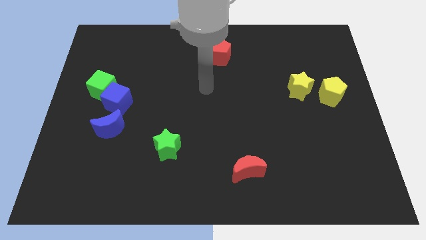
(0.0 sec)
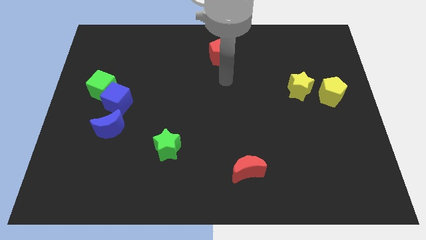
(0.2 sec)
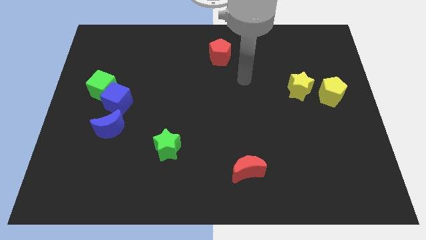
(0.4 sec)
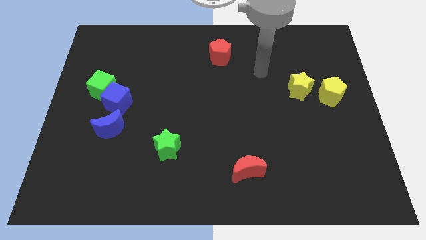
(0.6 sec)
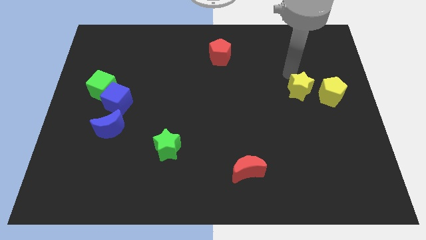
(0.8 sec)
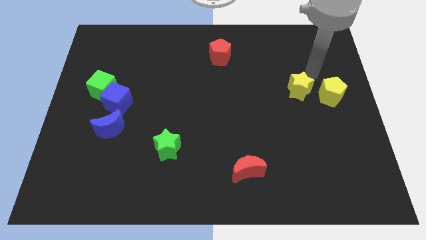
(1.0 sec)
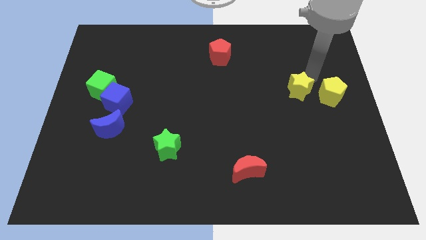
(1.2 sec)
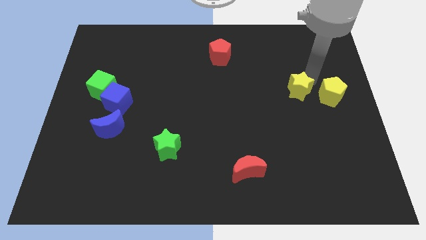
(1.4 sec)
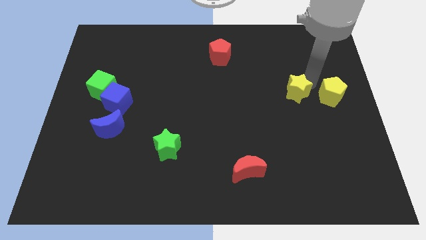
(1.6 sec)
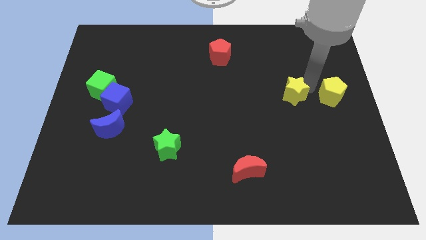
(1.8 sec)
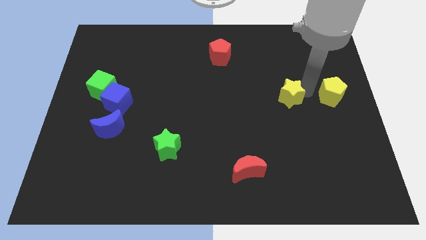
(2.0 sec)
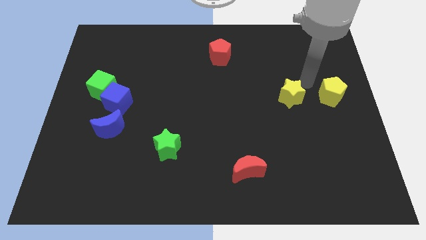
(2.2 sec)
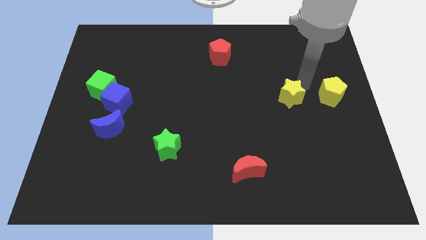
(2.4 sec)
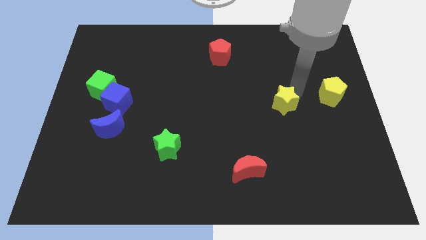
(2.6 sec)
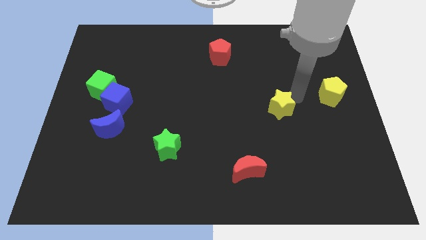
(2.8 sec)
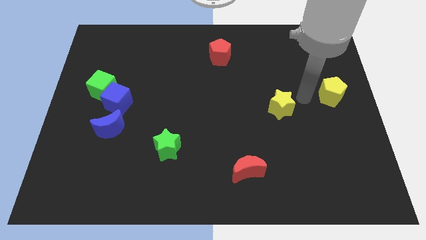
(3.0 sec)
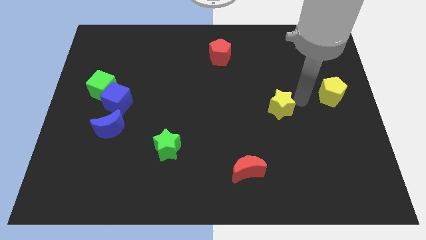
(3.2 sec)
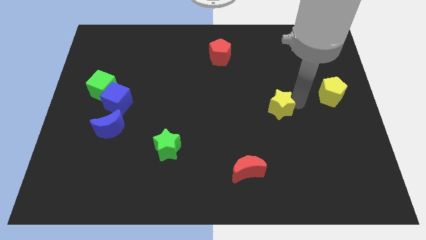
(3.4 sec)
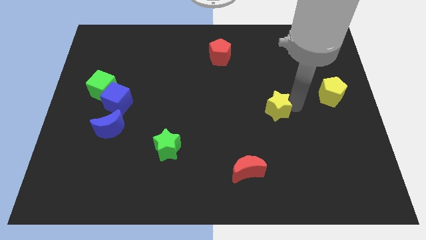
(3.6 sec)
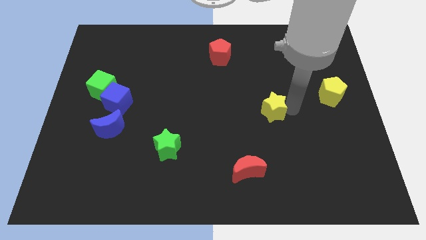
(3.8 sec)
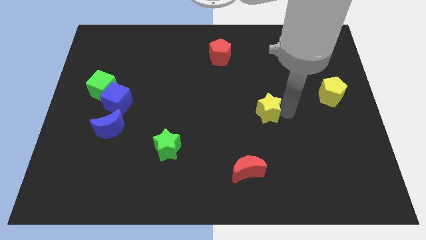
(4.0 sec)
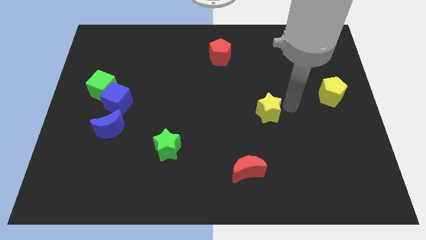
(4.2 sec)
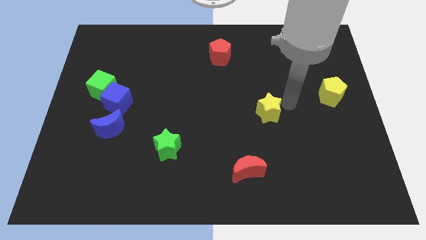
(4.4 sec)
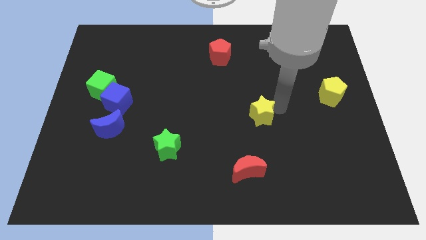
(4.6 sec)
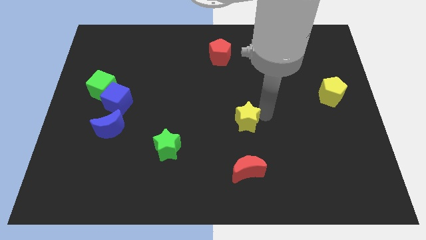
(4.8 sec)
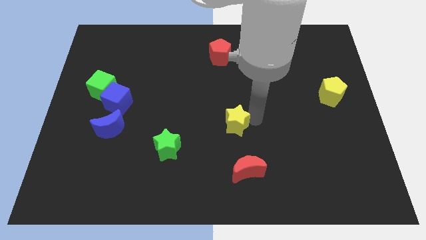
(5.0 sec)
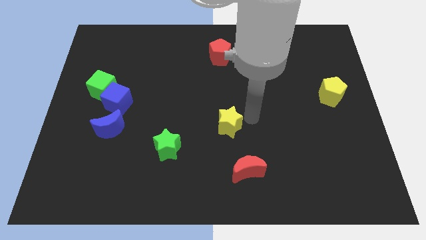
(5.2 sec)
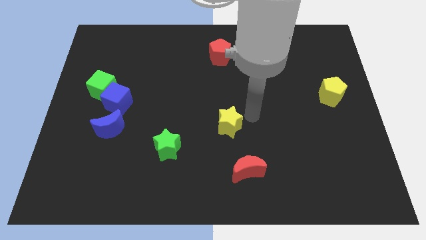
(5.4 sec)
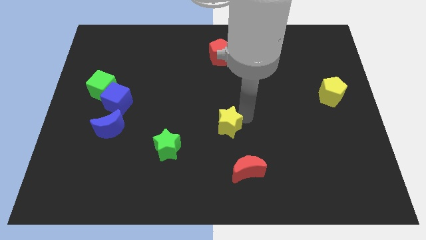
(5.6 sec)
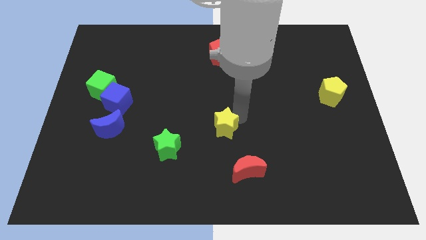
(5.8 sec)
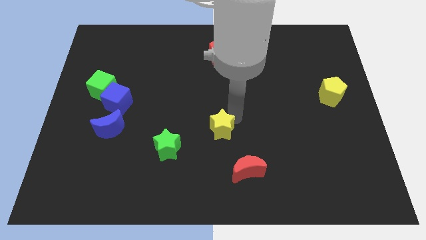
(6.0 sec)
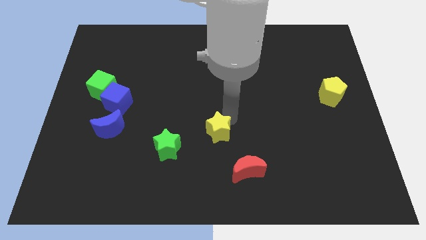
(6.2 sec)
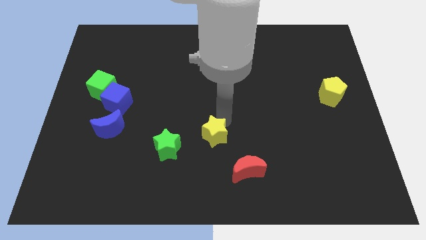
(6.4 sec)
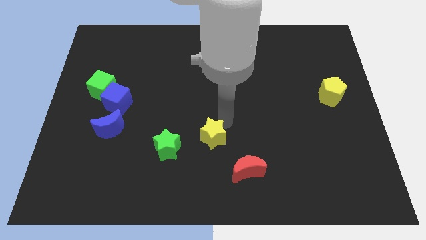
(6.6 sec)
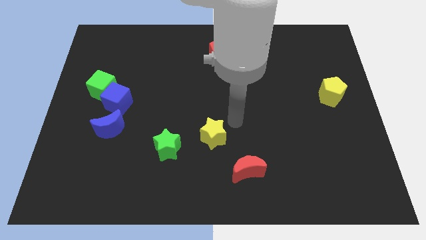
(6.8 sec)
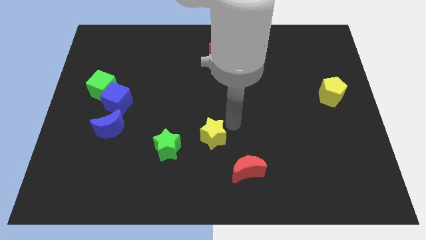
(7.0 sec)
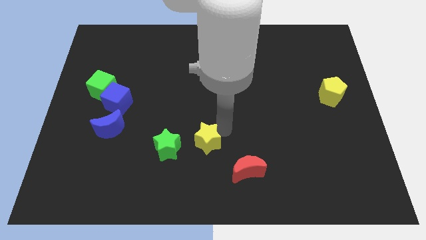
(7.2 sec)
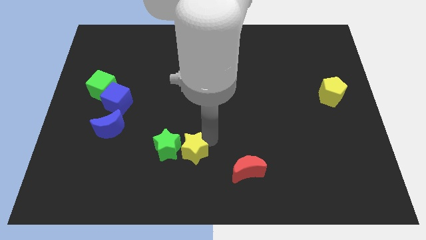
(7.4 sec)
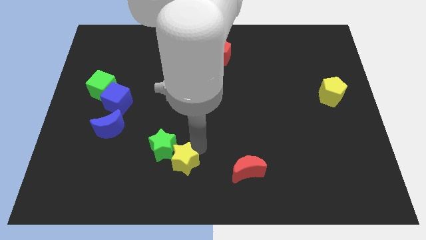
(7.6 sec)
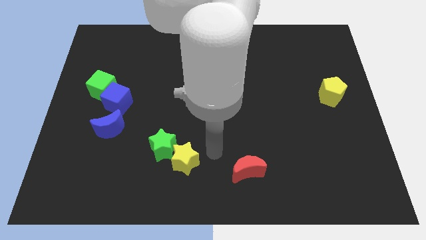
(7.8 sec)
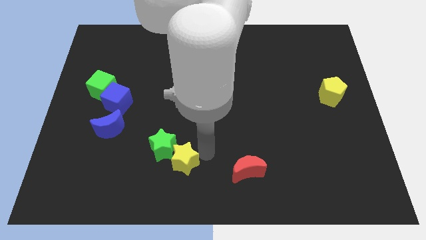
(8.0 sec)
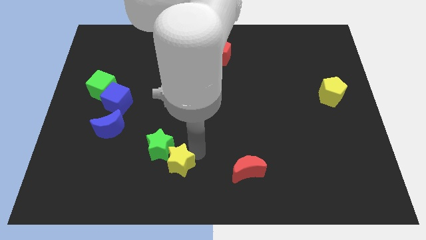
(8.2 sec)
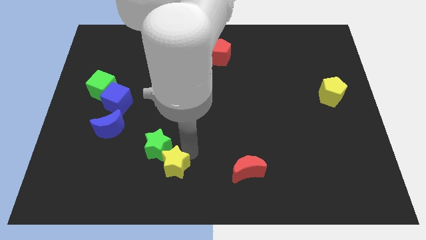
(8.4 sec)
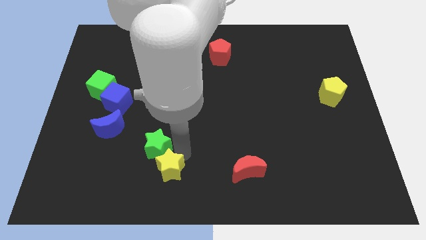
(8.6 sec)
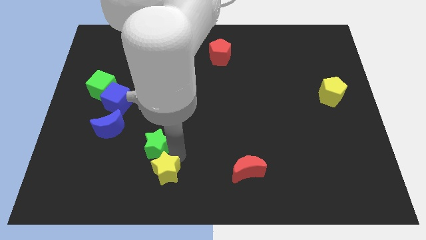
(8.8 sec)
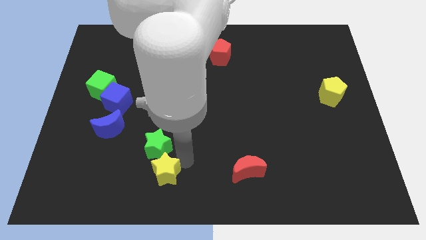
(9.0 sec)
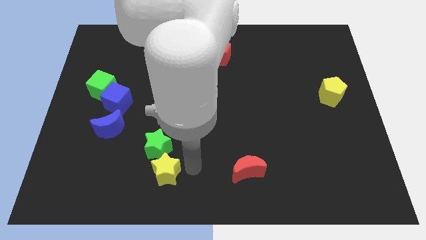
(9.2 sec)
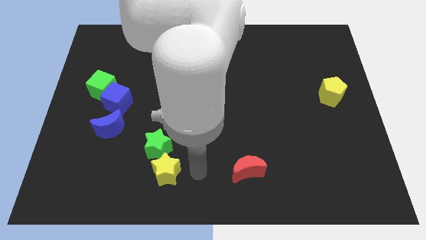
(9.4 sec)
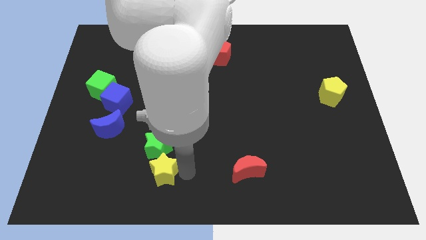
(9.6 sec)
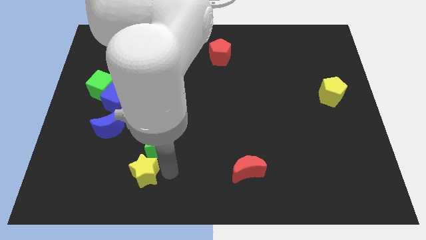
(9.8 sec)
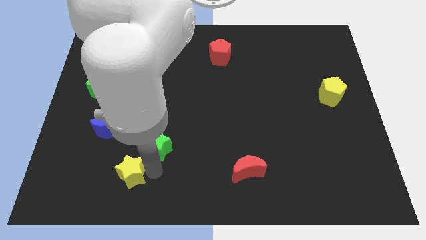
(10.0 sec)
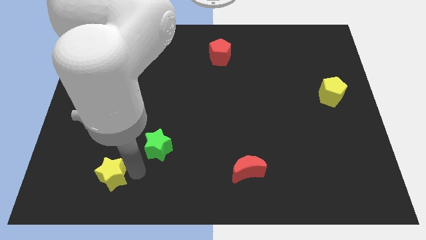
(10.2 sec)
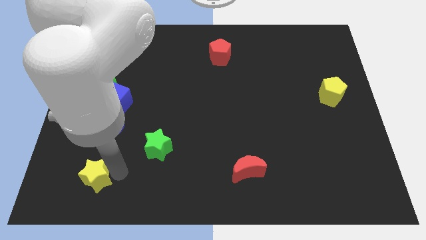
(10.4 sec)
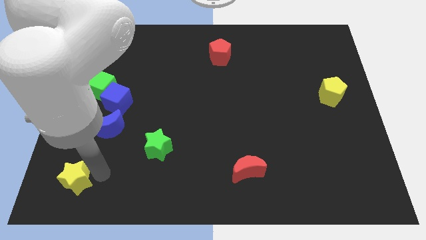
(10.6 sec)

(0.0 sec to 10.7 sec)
slide the yellow star to the lower left corner

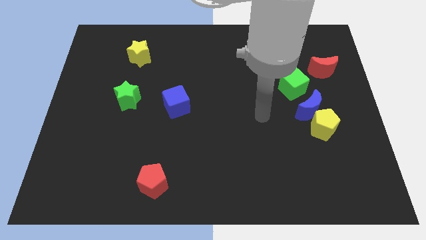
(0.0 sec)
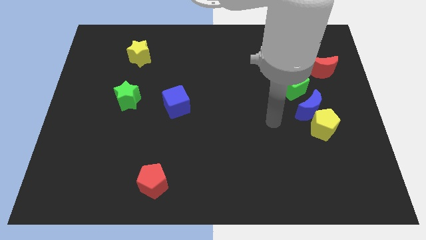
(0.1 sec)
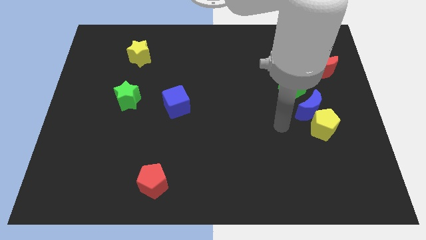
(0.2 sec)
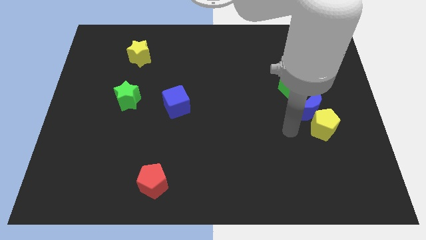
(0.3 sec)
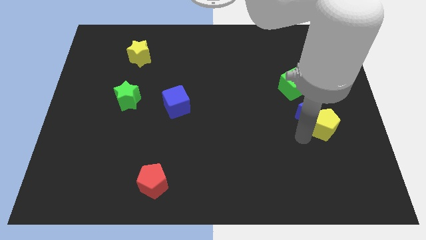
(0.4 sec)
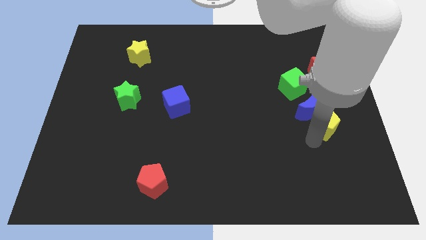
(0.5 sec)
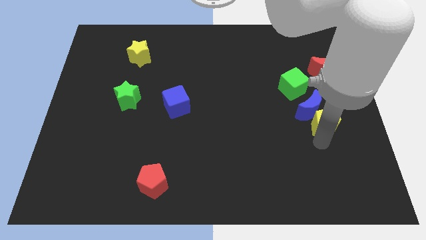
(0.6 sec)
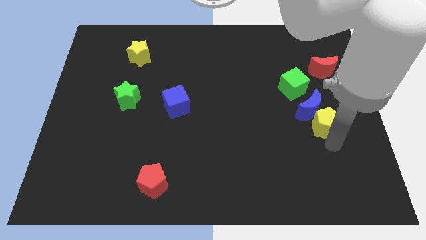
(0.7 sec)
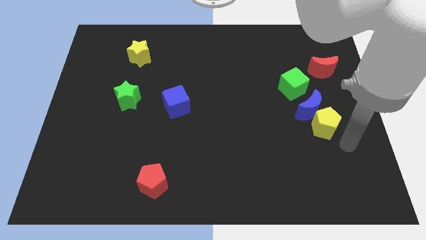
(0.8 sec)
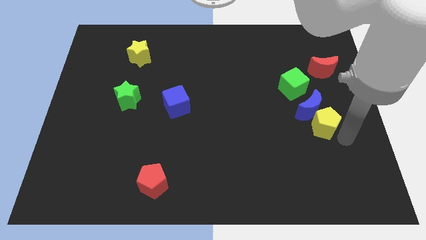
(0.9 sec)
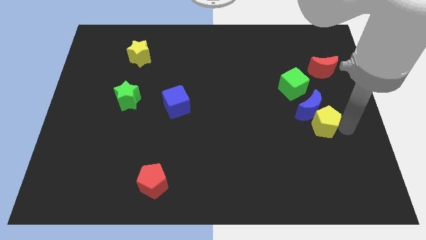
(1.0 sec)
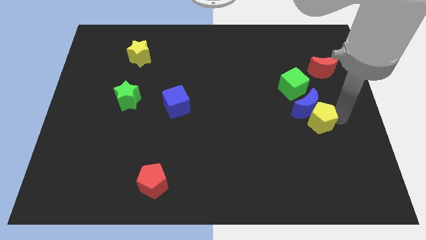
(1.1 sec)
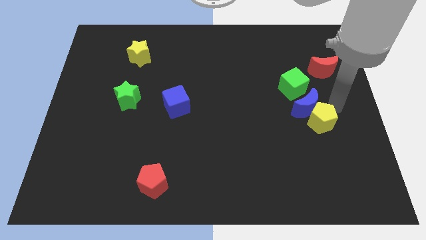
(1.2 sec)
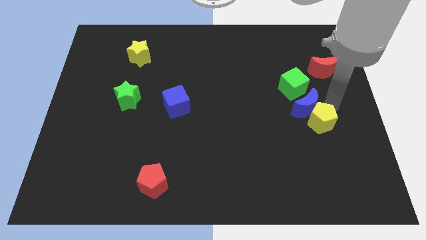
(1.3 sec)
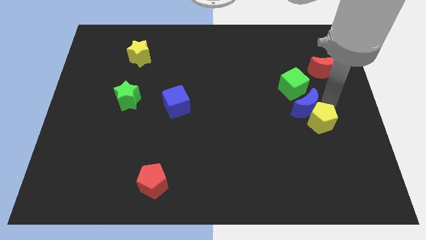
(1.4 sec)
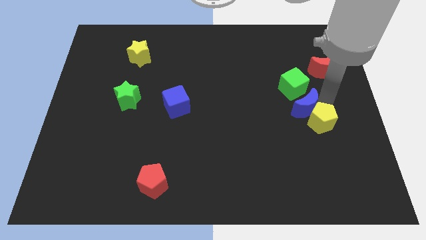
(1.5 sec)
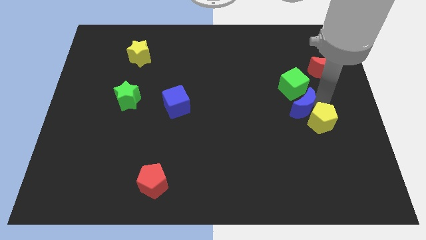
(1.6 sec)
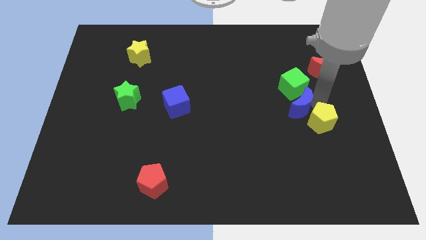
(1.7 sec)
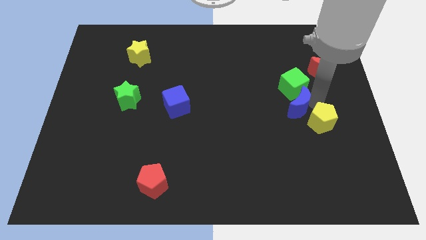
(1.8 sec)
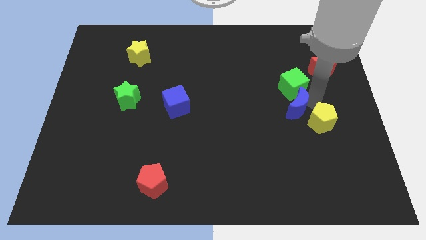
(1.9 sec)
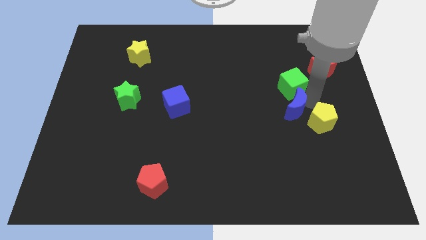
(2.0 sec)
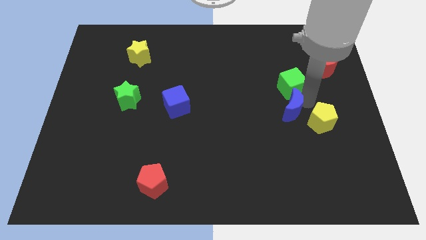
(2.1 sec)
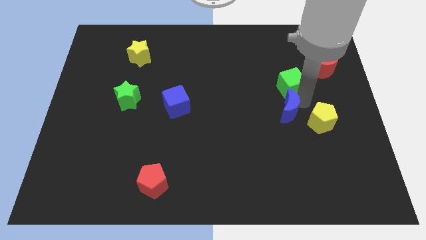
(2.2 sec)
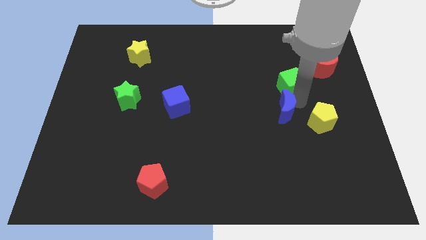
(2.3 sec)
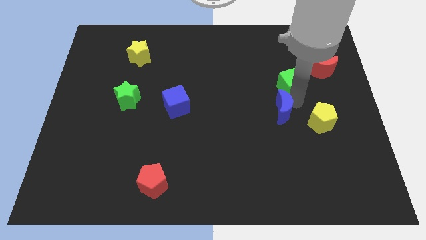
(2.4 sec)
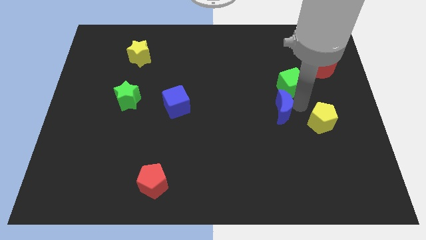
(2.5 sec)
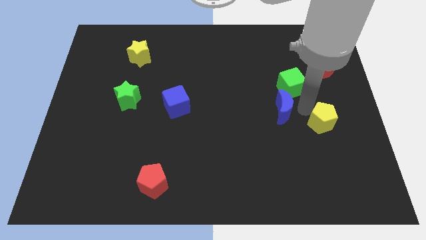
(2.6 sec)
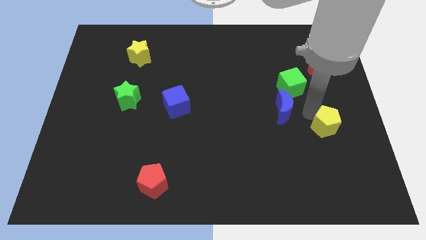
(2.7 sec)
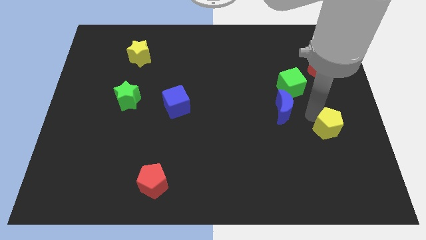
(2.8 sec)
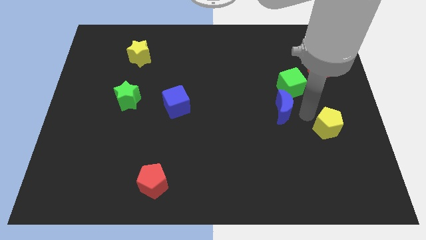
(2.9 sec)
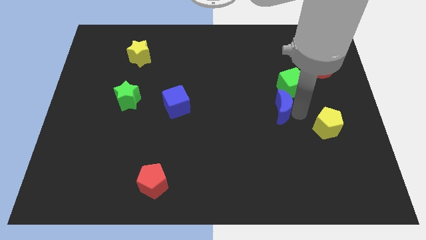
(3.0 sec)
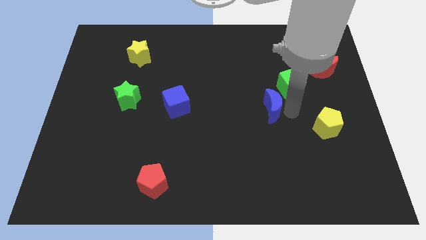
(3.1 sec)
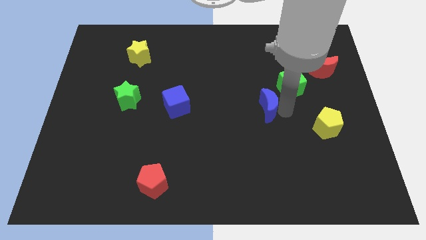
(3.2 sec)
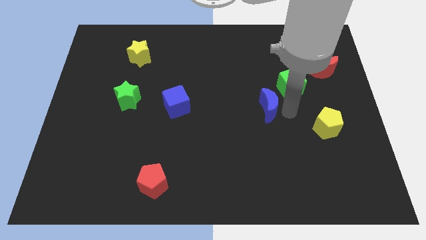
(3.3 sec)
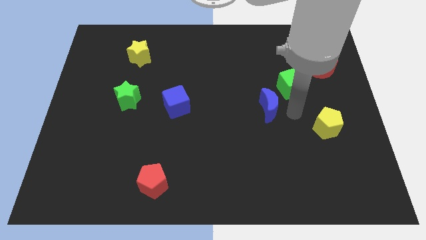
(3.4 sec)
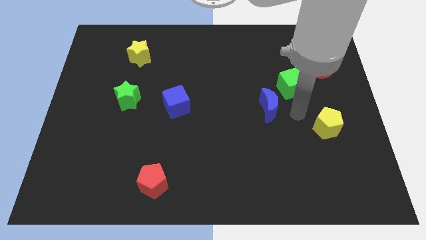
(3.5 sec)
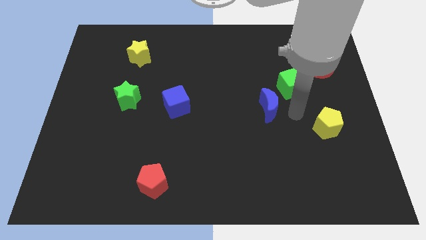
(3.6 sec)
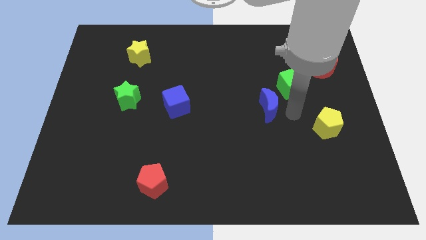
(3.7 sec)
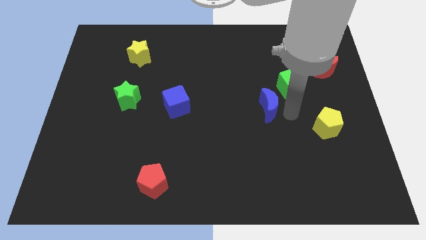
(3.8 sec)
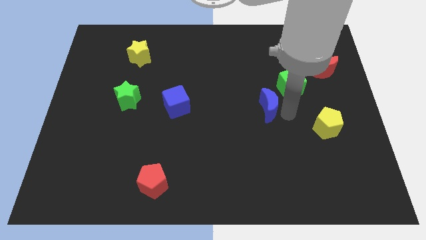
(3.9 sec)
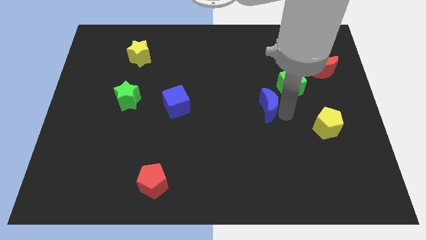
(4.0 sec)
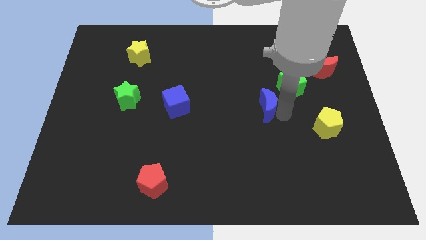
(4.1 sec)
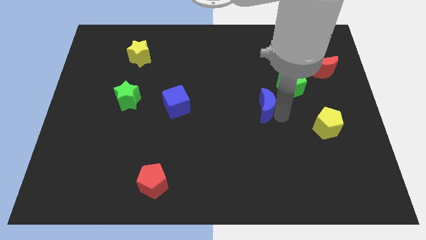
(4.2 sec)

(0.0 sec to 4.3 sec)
move the blue moon to the center of the board
